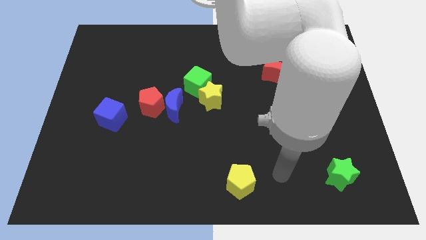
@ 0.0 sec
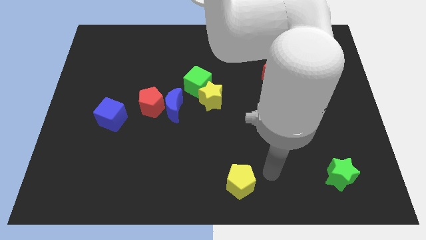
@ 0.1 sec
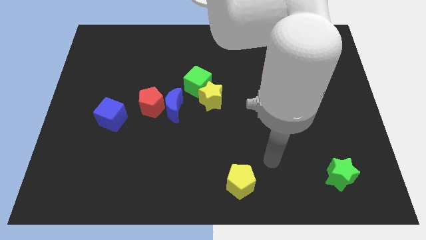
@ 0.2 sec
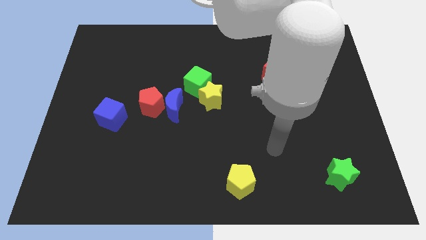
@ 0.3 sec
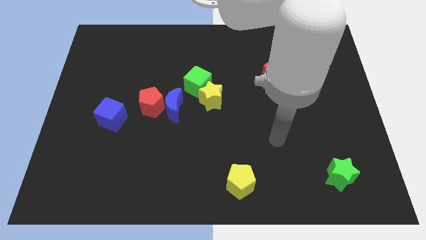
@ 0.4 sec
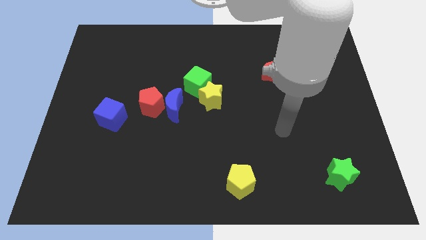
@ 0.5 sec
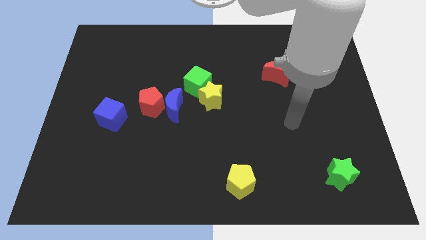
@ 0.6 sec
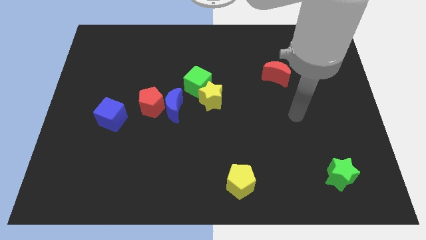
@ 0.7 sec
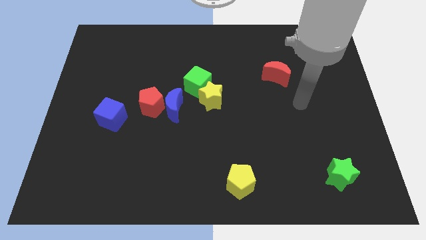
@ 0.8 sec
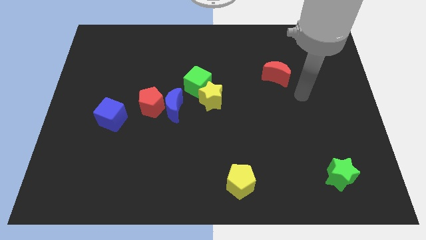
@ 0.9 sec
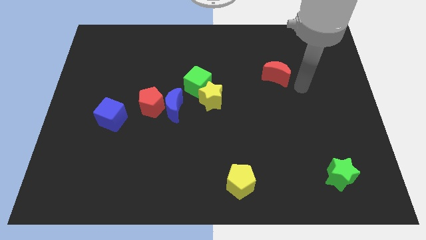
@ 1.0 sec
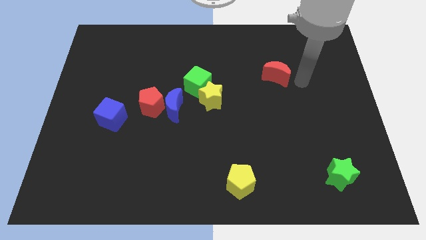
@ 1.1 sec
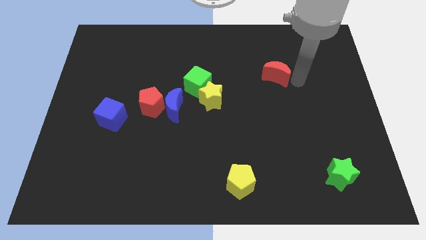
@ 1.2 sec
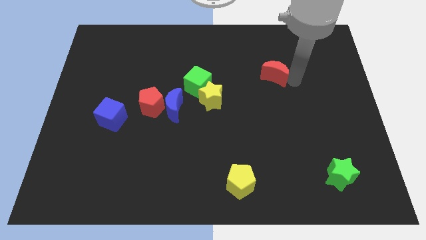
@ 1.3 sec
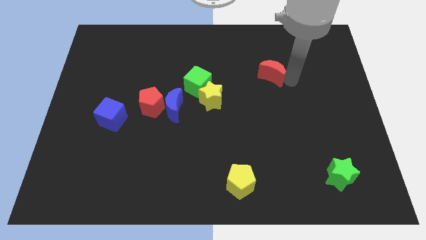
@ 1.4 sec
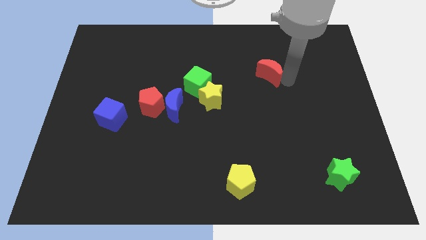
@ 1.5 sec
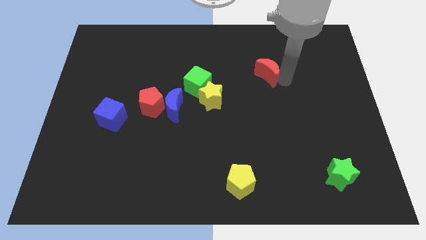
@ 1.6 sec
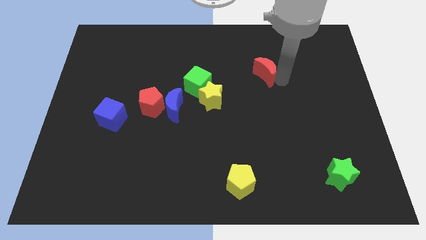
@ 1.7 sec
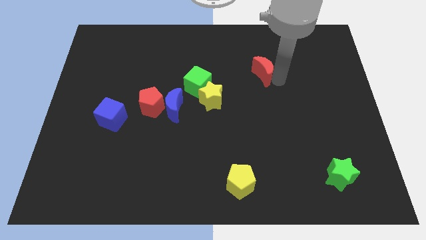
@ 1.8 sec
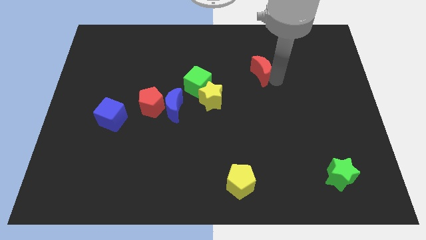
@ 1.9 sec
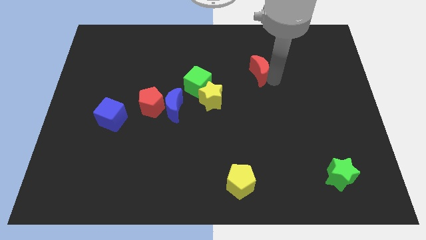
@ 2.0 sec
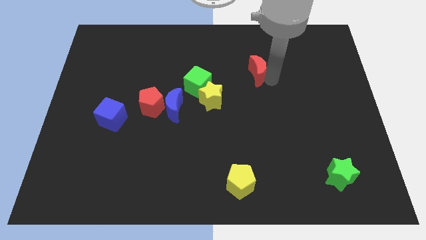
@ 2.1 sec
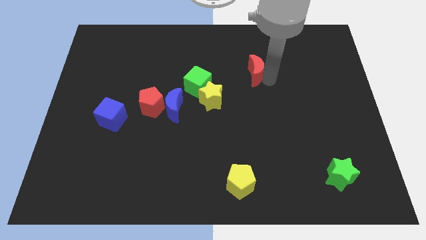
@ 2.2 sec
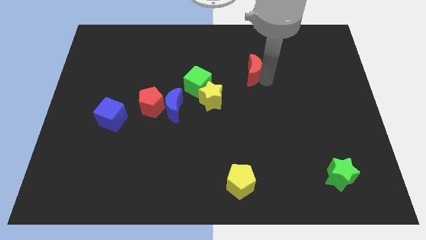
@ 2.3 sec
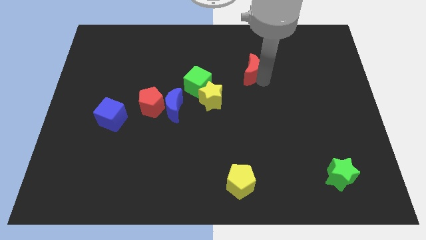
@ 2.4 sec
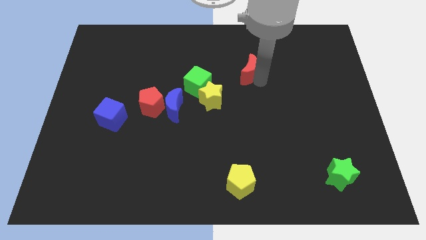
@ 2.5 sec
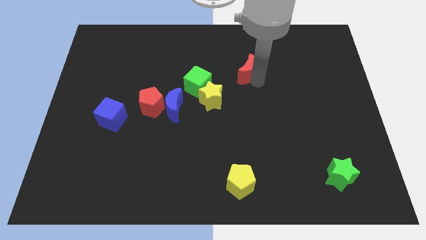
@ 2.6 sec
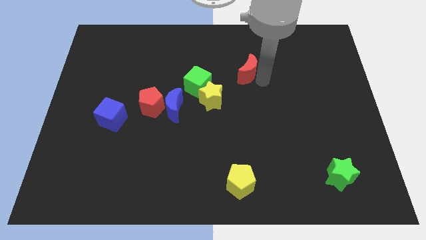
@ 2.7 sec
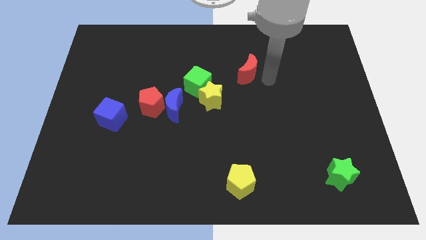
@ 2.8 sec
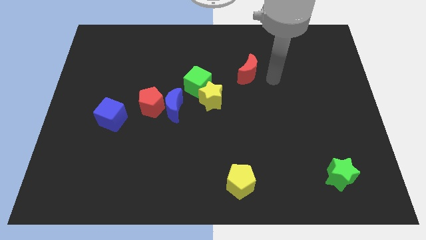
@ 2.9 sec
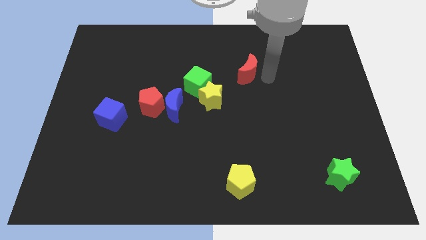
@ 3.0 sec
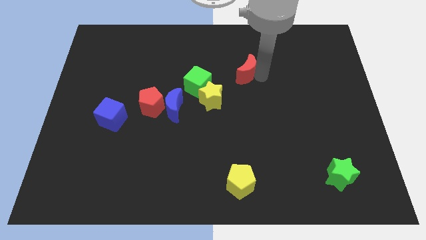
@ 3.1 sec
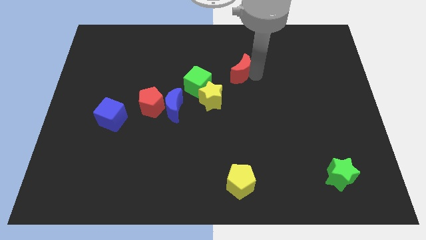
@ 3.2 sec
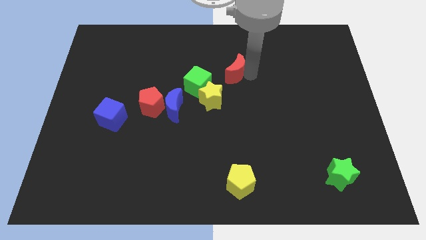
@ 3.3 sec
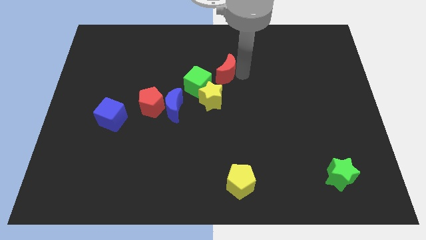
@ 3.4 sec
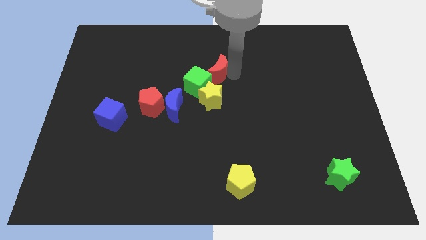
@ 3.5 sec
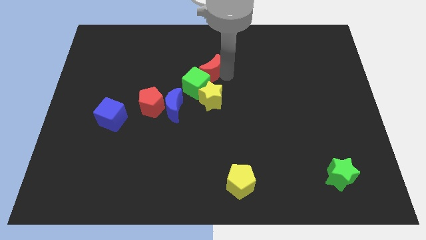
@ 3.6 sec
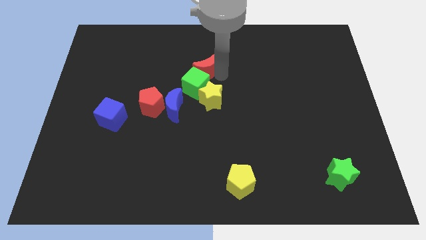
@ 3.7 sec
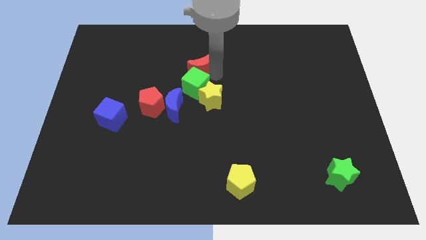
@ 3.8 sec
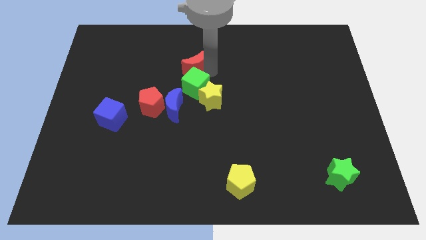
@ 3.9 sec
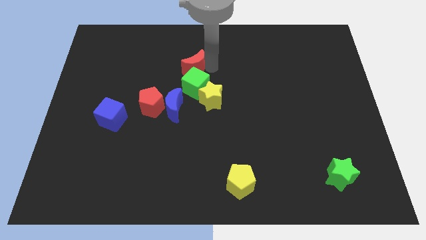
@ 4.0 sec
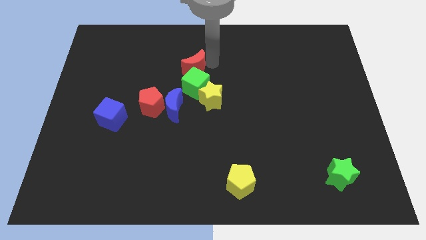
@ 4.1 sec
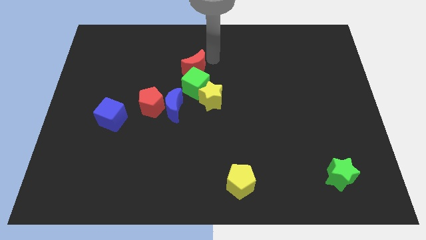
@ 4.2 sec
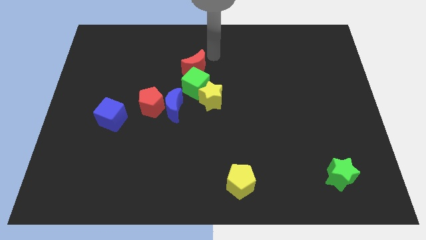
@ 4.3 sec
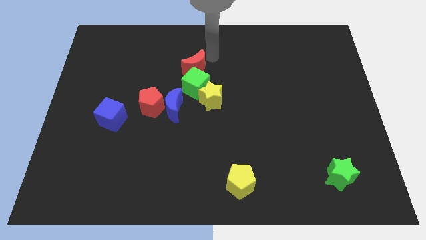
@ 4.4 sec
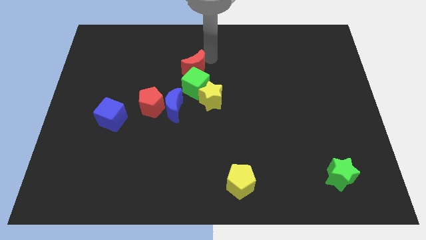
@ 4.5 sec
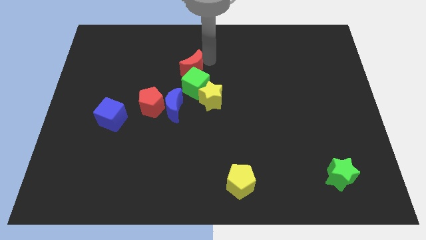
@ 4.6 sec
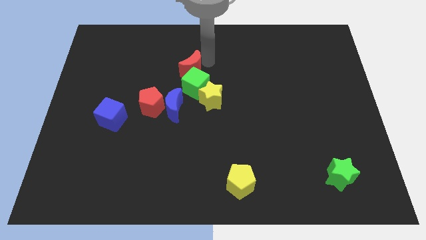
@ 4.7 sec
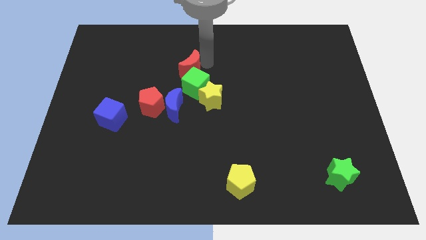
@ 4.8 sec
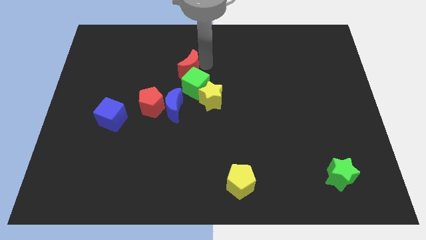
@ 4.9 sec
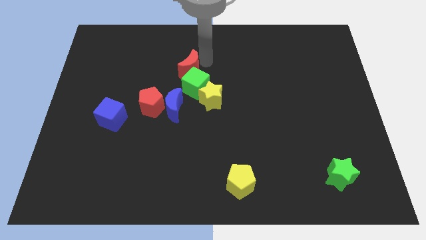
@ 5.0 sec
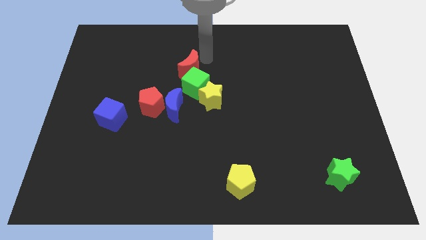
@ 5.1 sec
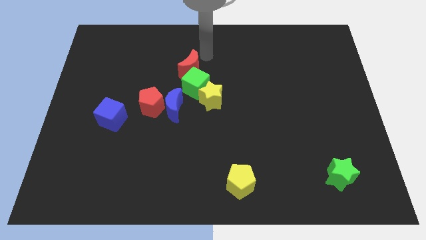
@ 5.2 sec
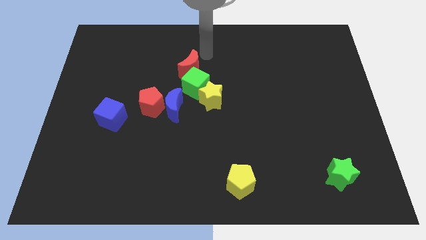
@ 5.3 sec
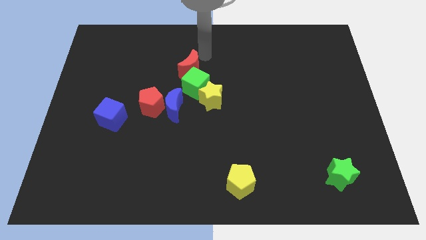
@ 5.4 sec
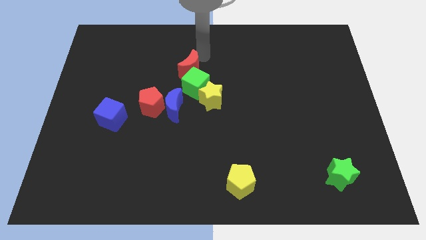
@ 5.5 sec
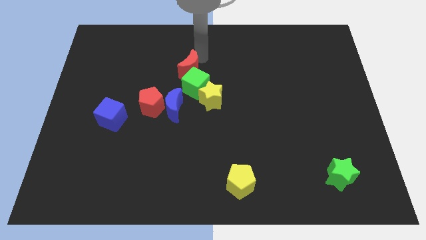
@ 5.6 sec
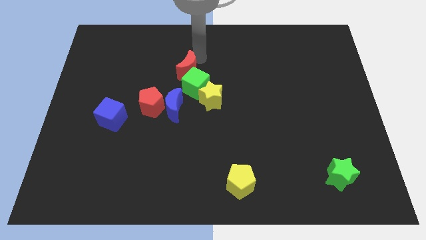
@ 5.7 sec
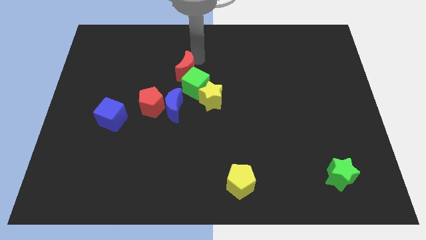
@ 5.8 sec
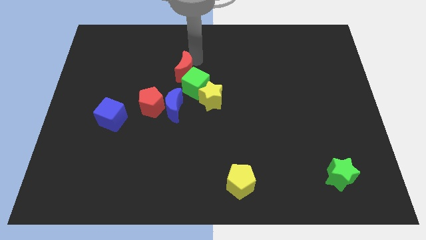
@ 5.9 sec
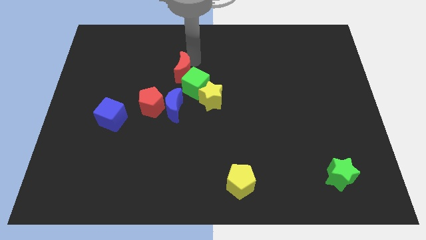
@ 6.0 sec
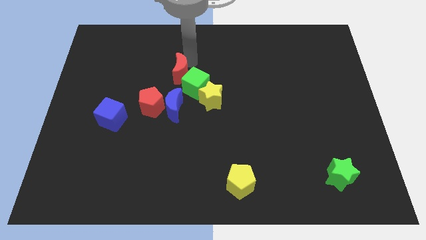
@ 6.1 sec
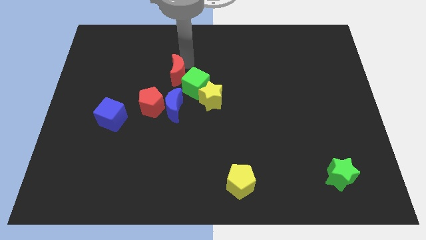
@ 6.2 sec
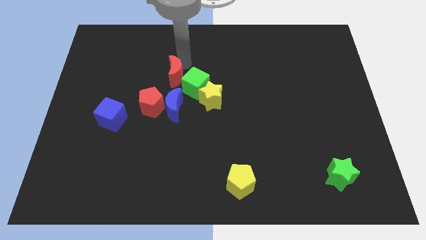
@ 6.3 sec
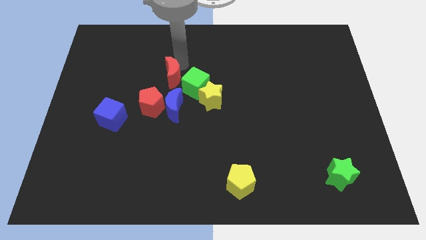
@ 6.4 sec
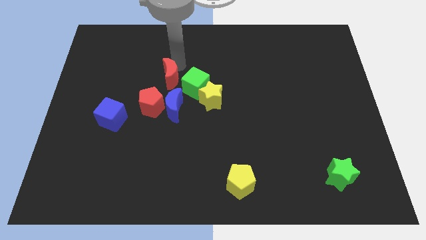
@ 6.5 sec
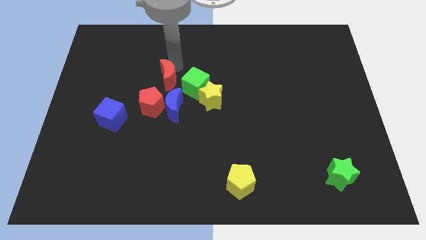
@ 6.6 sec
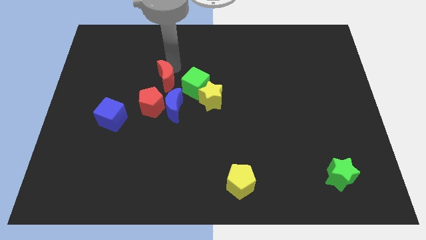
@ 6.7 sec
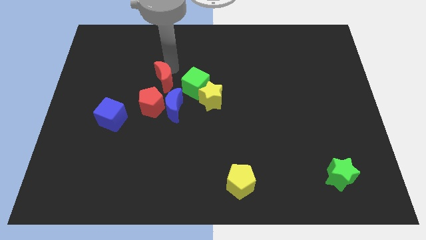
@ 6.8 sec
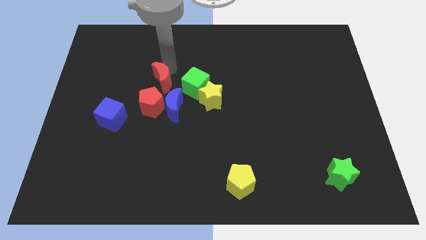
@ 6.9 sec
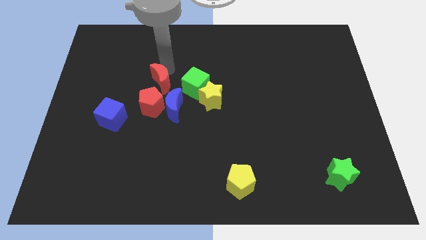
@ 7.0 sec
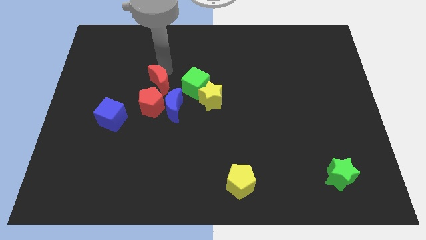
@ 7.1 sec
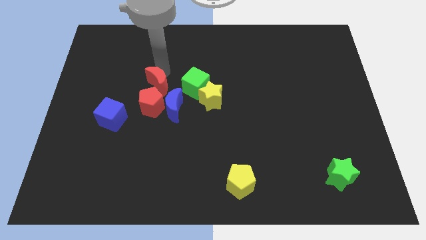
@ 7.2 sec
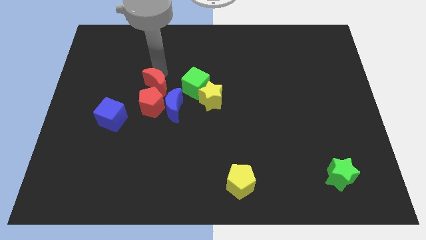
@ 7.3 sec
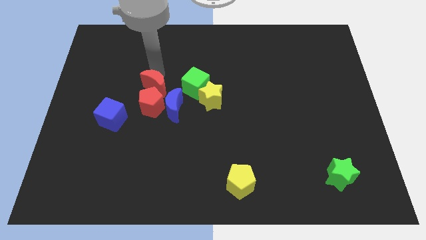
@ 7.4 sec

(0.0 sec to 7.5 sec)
slide the red moon towards the red pentagon
